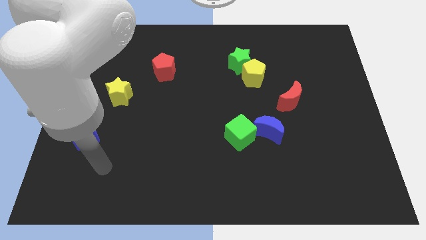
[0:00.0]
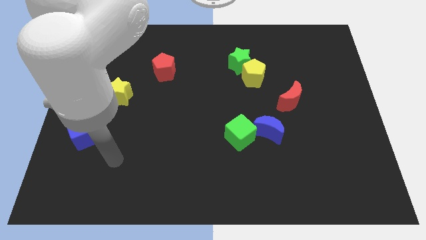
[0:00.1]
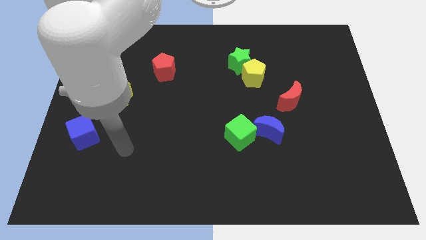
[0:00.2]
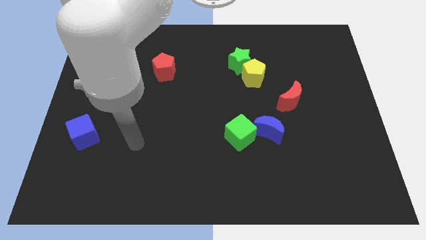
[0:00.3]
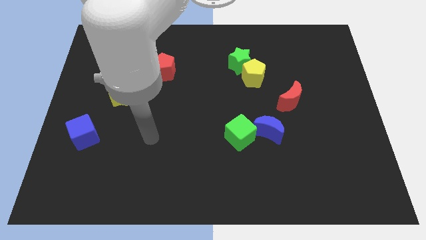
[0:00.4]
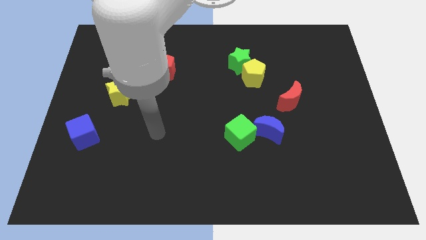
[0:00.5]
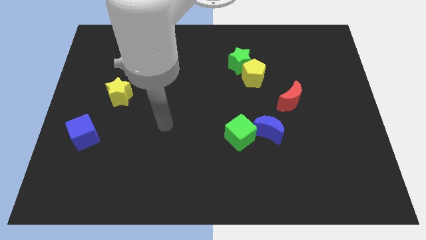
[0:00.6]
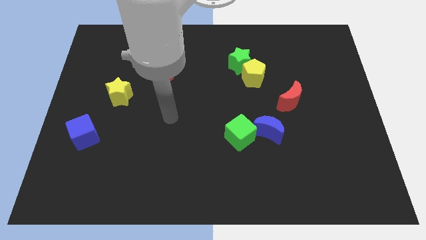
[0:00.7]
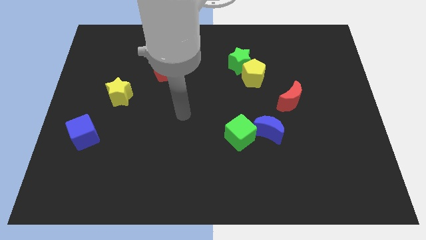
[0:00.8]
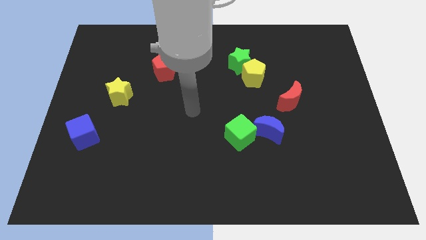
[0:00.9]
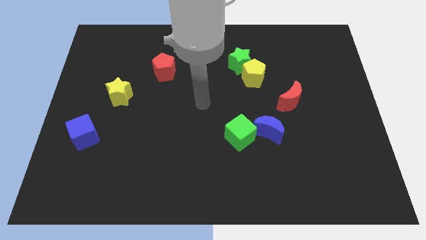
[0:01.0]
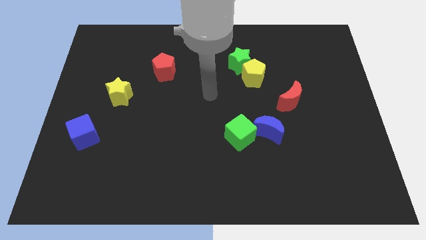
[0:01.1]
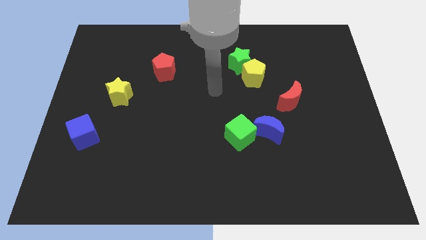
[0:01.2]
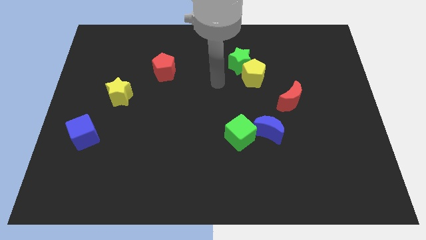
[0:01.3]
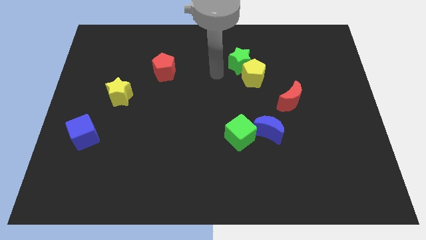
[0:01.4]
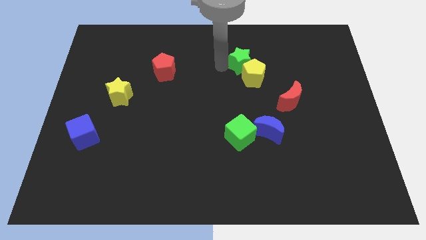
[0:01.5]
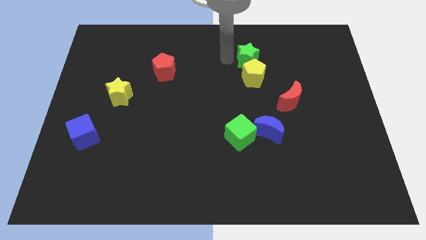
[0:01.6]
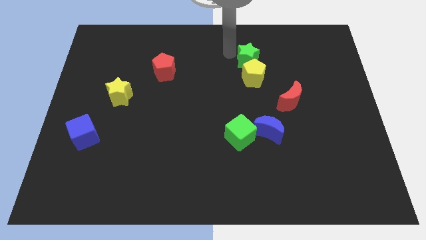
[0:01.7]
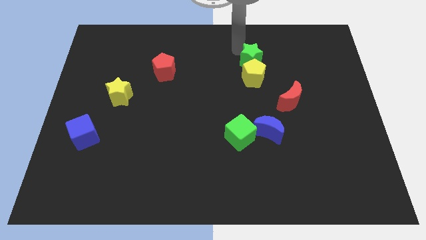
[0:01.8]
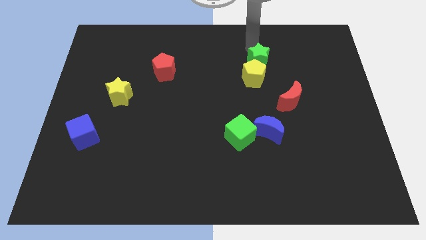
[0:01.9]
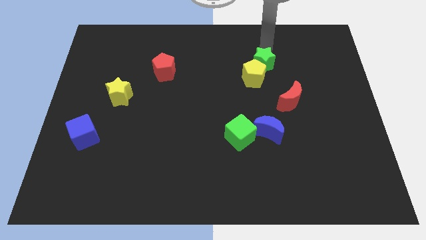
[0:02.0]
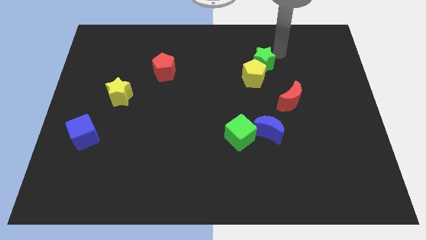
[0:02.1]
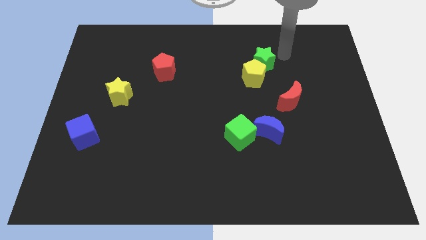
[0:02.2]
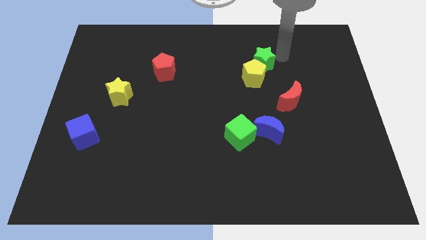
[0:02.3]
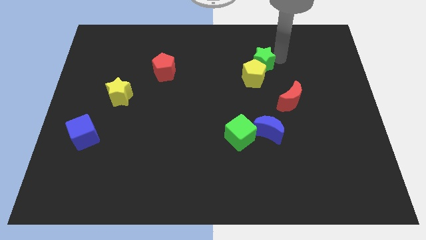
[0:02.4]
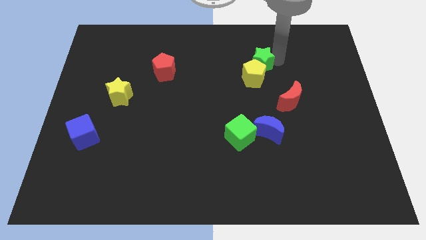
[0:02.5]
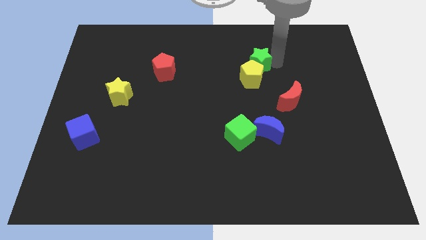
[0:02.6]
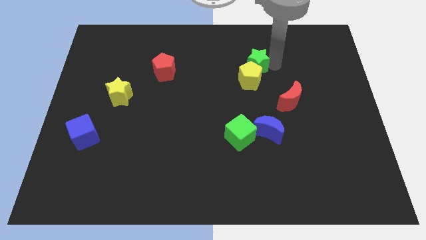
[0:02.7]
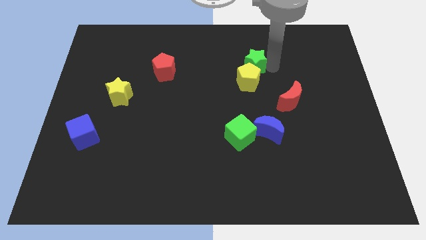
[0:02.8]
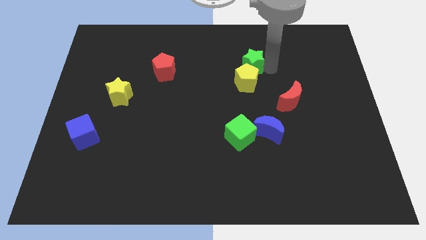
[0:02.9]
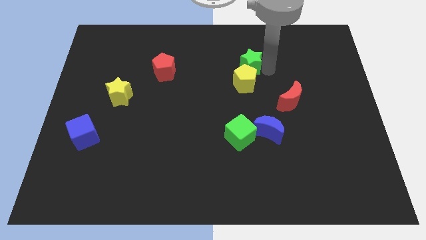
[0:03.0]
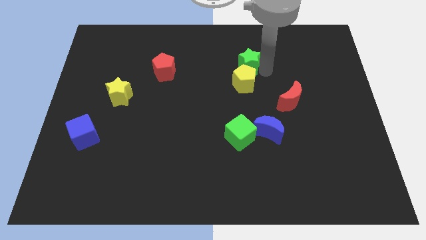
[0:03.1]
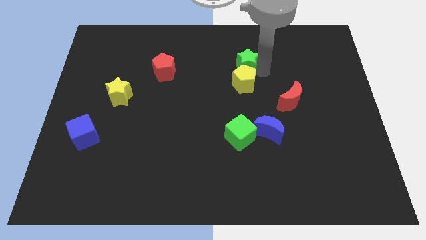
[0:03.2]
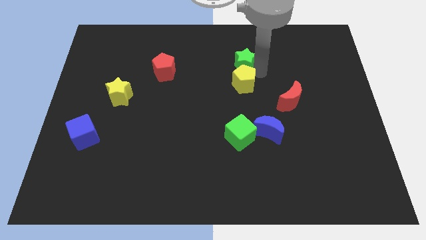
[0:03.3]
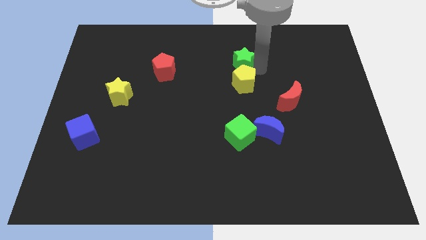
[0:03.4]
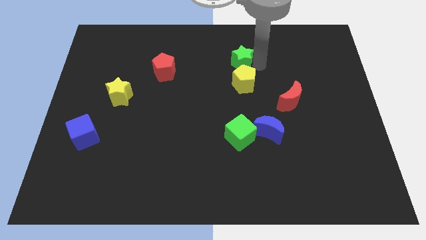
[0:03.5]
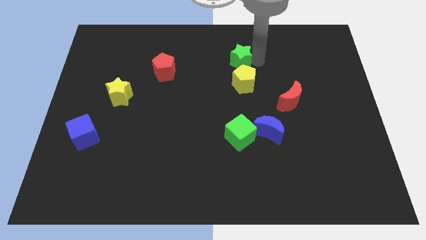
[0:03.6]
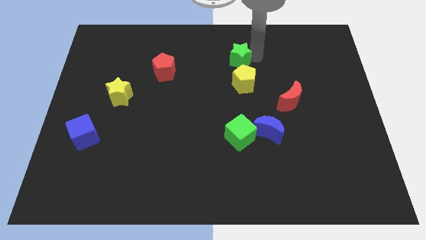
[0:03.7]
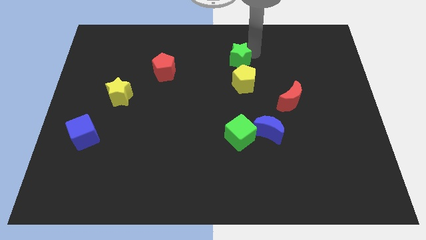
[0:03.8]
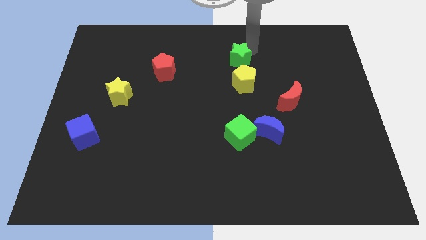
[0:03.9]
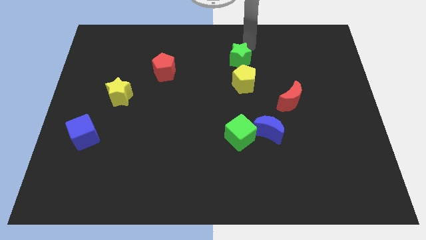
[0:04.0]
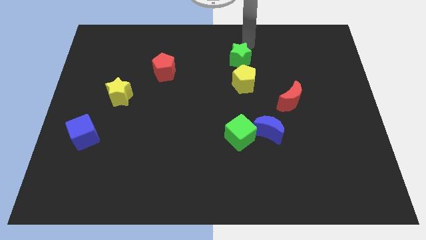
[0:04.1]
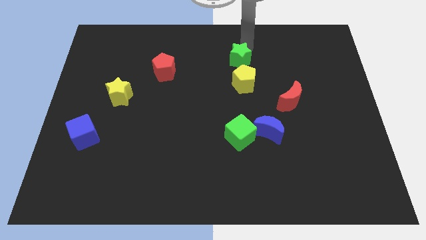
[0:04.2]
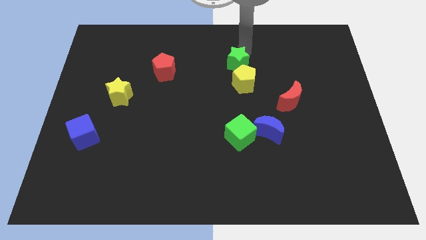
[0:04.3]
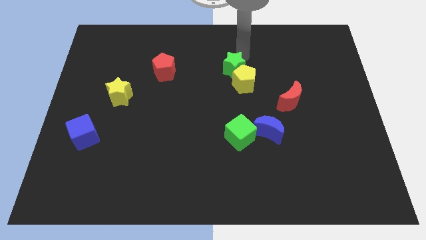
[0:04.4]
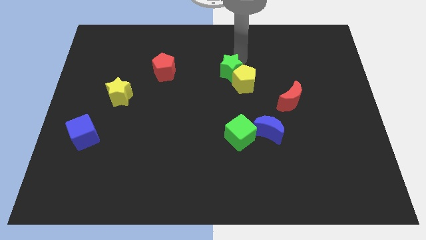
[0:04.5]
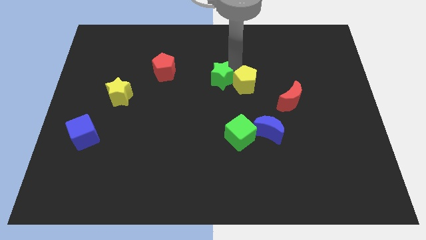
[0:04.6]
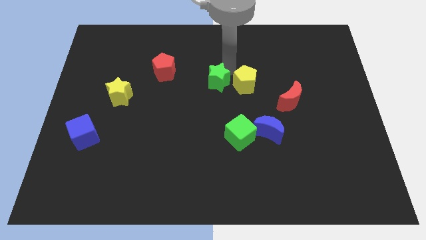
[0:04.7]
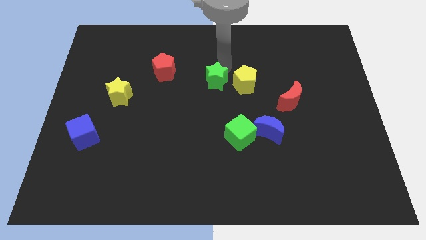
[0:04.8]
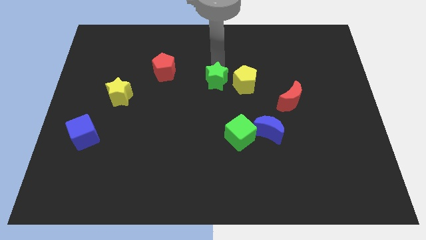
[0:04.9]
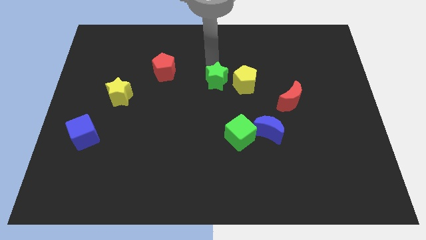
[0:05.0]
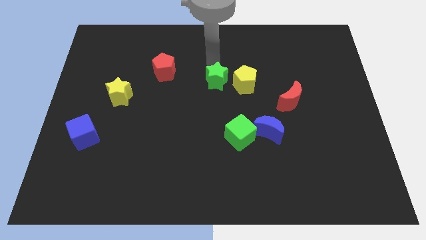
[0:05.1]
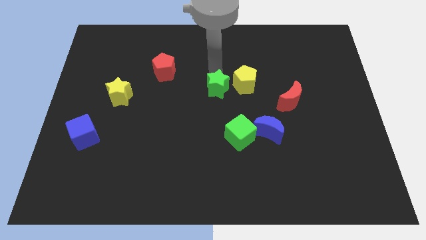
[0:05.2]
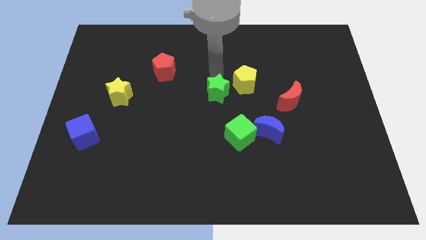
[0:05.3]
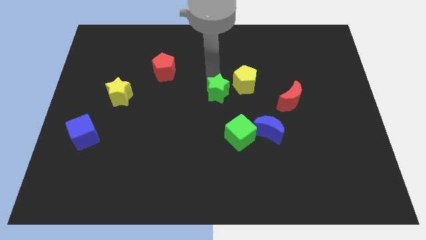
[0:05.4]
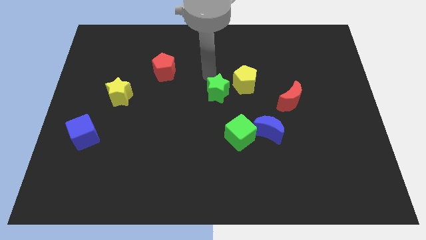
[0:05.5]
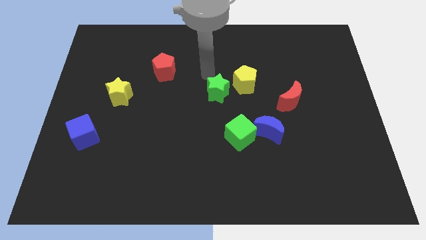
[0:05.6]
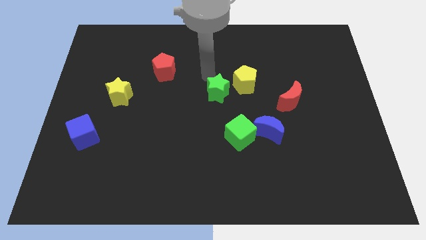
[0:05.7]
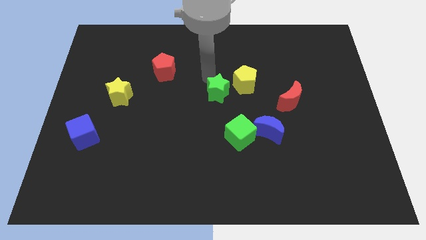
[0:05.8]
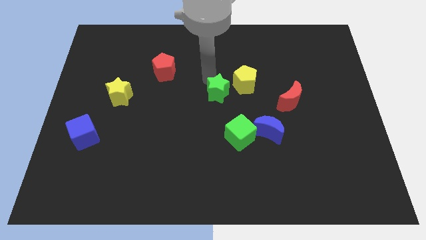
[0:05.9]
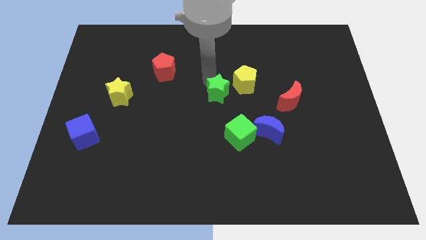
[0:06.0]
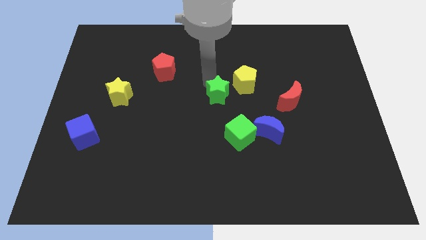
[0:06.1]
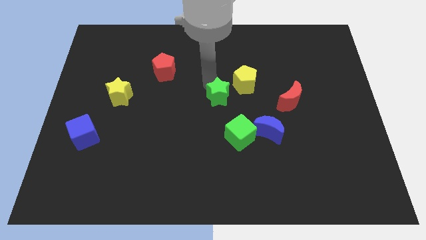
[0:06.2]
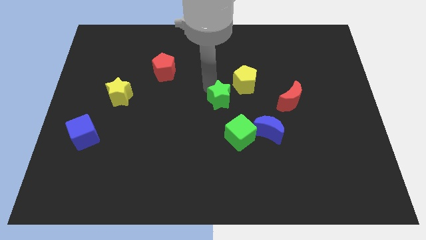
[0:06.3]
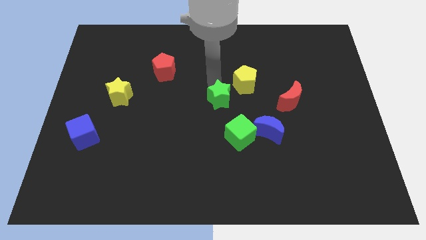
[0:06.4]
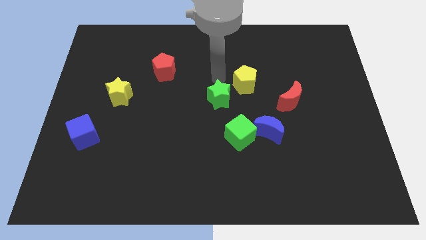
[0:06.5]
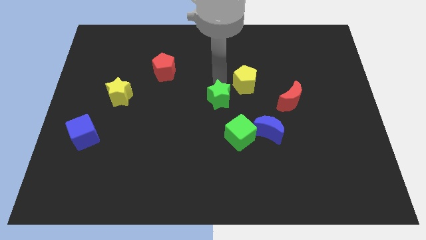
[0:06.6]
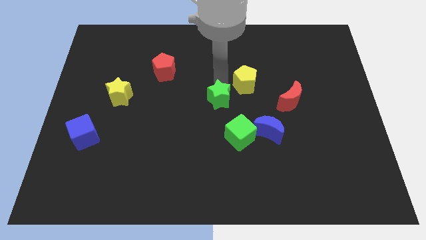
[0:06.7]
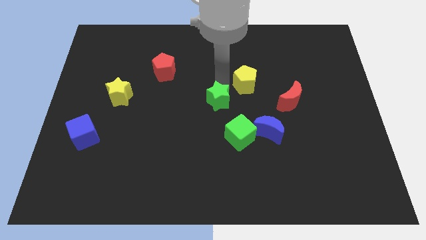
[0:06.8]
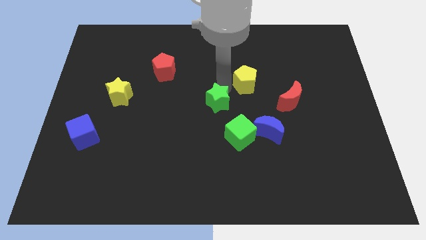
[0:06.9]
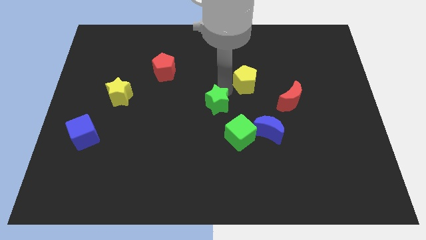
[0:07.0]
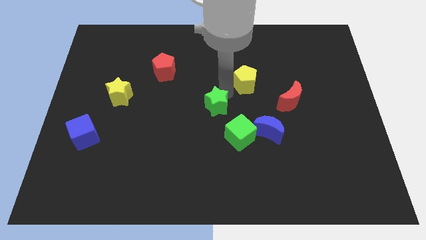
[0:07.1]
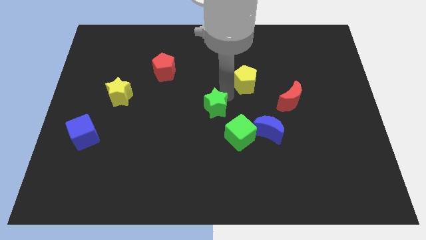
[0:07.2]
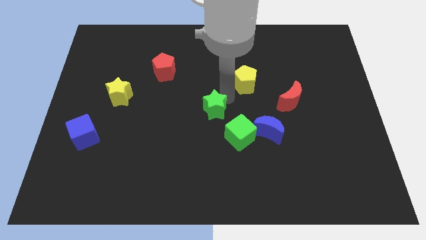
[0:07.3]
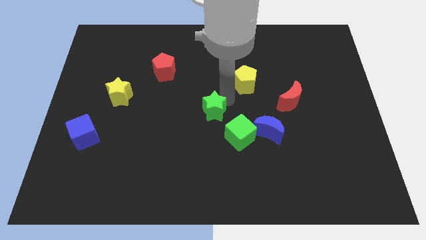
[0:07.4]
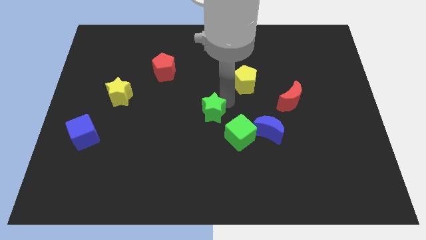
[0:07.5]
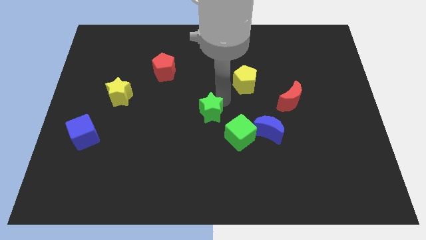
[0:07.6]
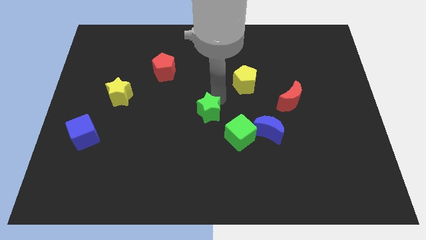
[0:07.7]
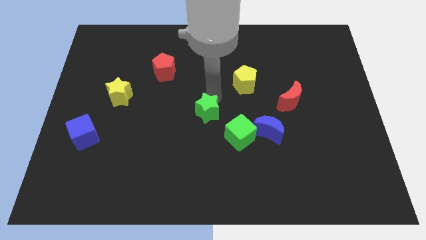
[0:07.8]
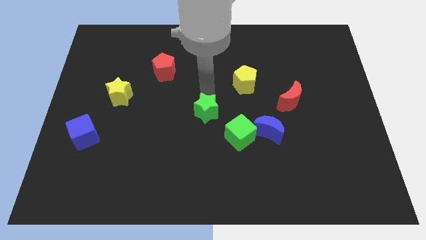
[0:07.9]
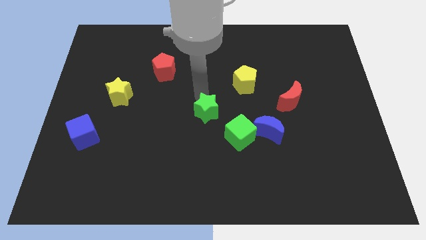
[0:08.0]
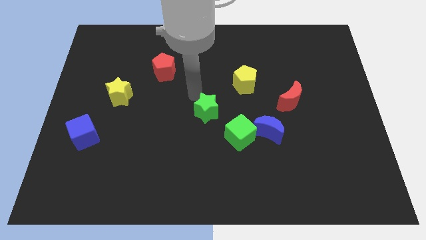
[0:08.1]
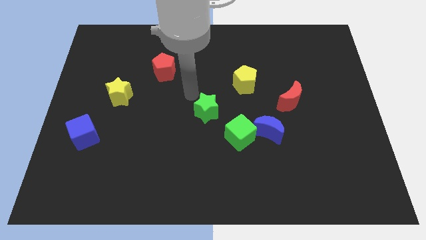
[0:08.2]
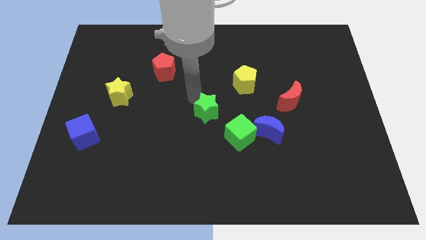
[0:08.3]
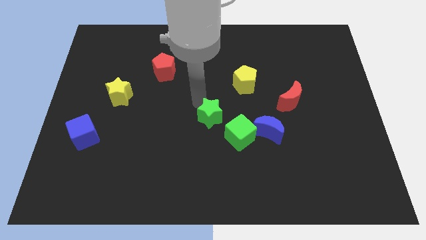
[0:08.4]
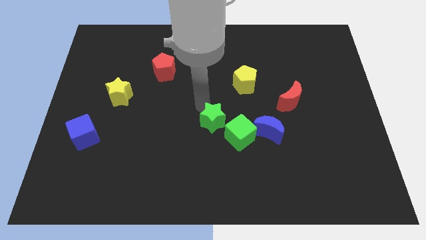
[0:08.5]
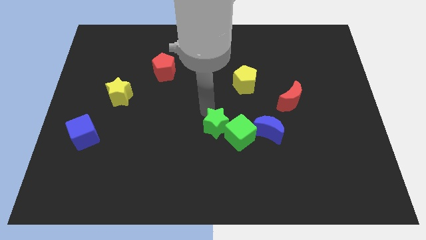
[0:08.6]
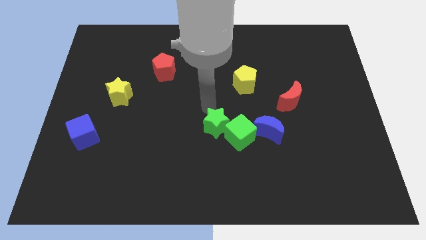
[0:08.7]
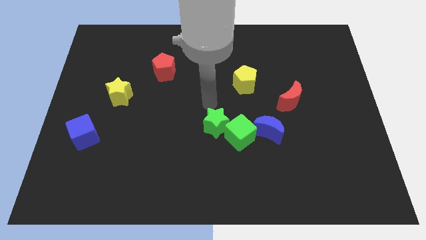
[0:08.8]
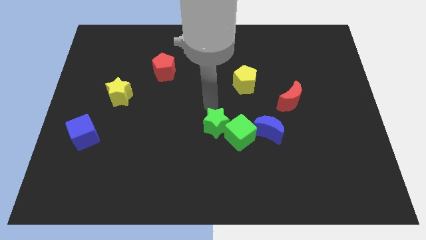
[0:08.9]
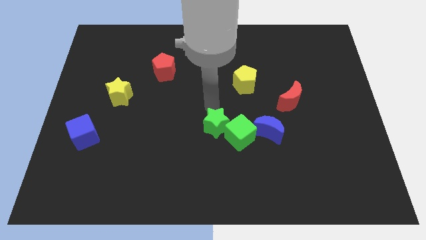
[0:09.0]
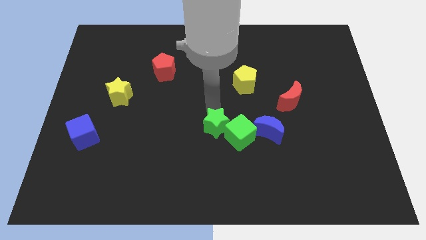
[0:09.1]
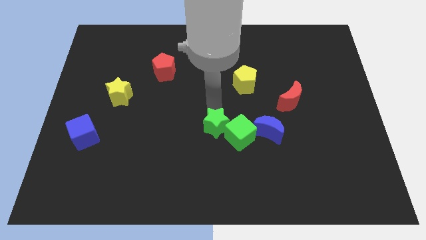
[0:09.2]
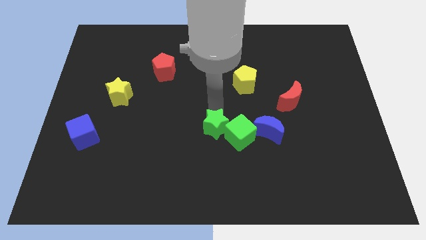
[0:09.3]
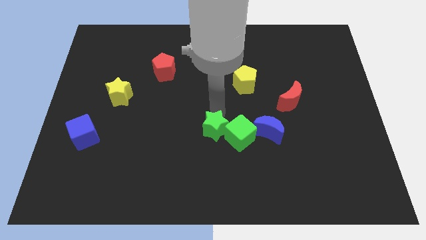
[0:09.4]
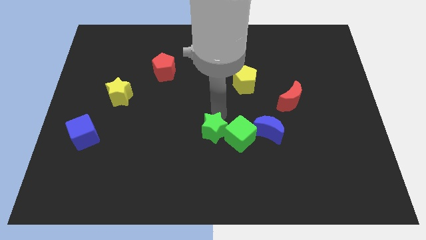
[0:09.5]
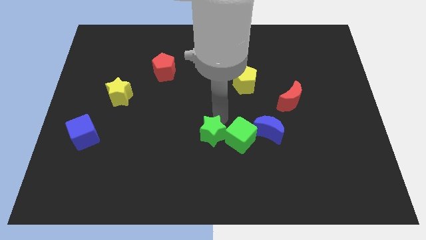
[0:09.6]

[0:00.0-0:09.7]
move the green star downwards
